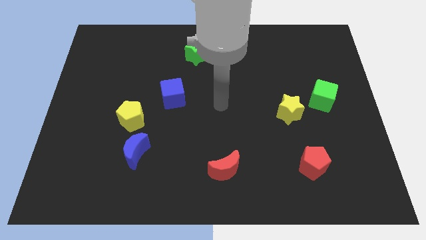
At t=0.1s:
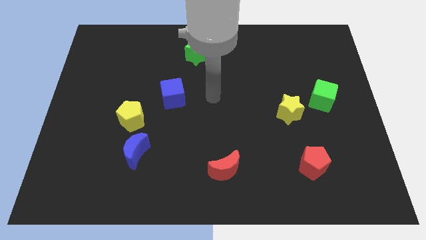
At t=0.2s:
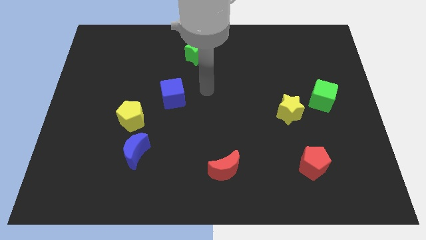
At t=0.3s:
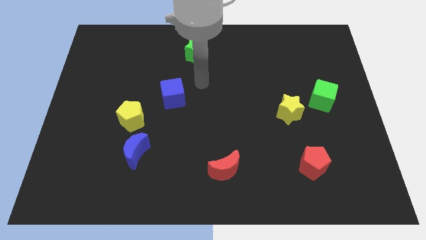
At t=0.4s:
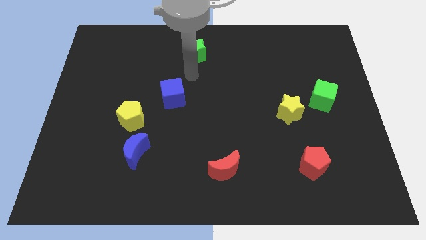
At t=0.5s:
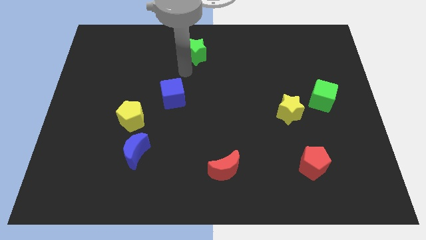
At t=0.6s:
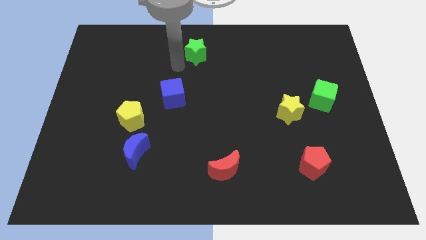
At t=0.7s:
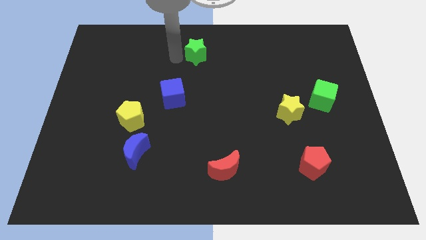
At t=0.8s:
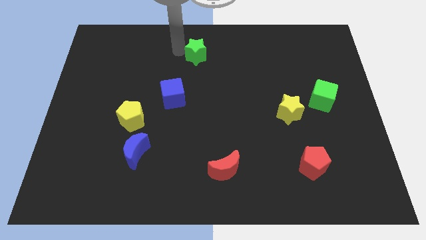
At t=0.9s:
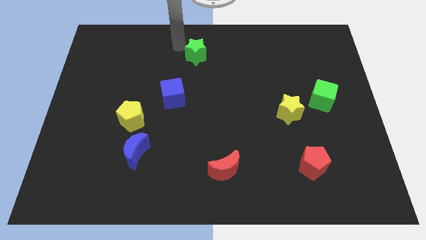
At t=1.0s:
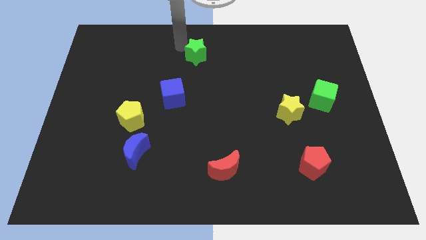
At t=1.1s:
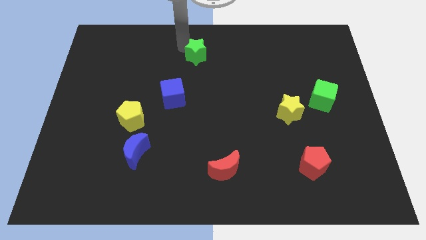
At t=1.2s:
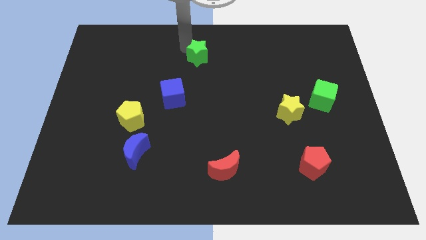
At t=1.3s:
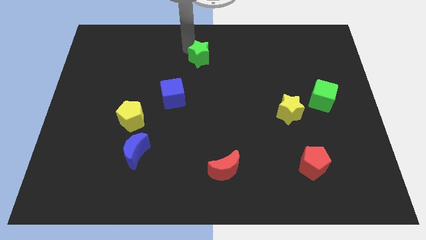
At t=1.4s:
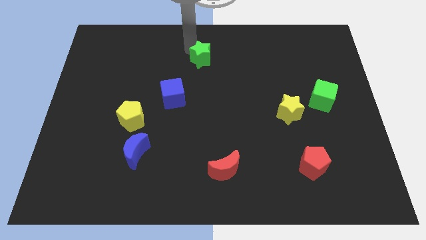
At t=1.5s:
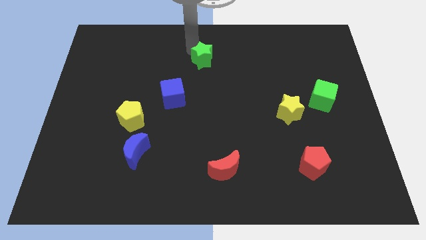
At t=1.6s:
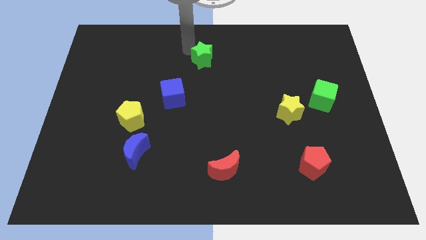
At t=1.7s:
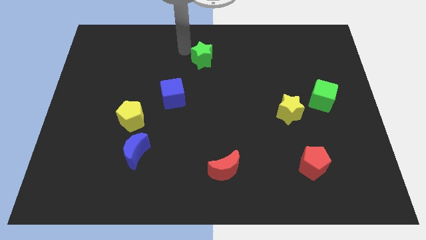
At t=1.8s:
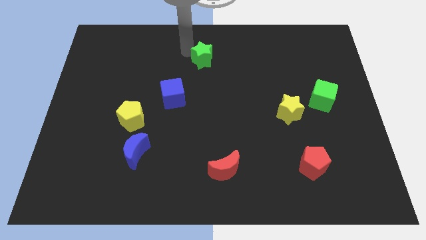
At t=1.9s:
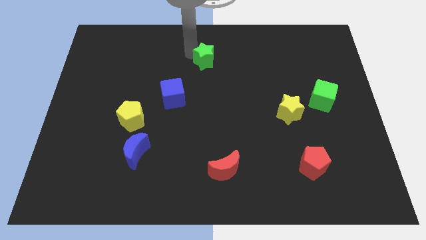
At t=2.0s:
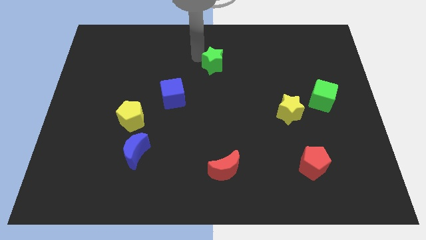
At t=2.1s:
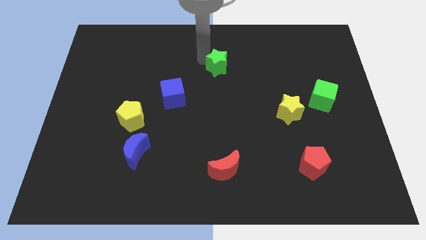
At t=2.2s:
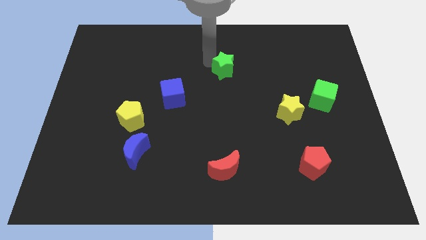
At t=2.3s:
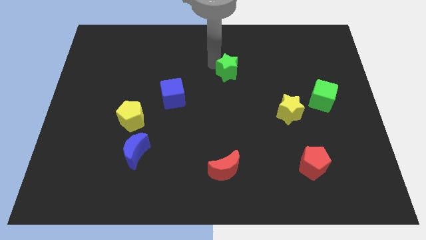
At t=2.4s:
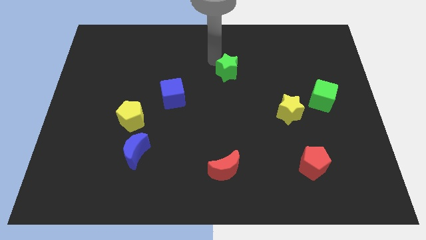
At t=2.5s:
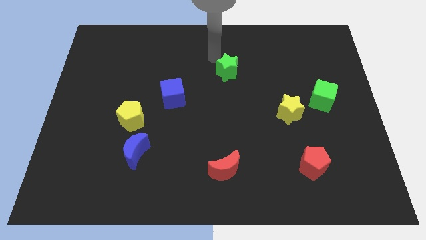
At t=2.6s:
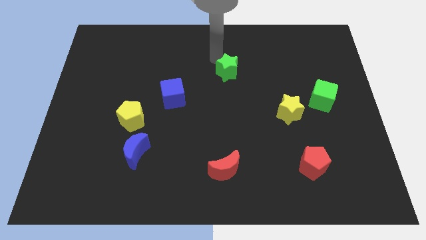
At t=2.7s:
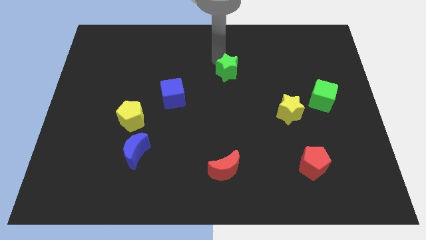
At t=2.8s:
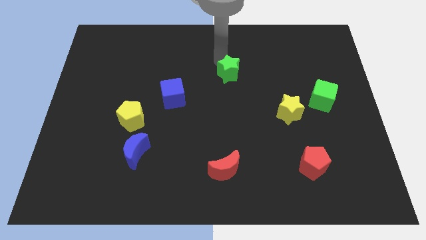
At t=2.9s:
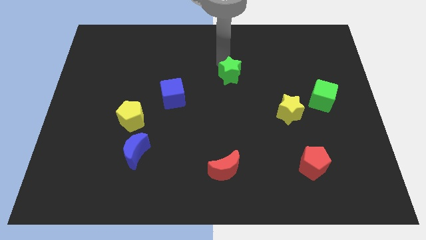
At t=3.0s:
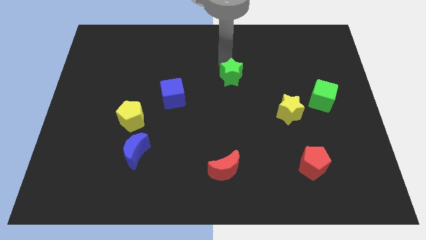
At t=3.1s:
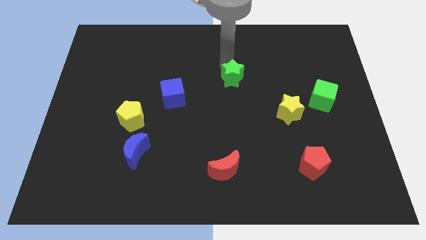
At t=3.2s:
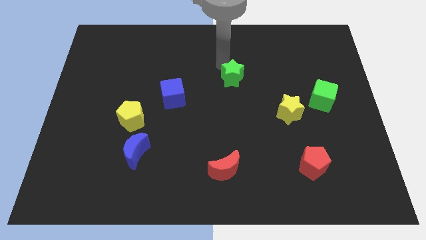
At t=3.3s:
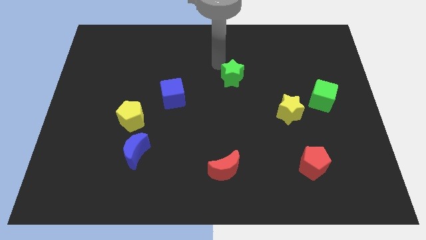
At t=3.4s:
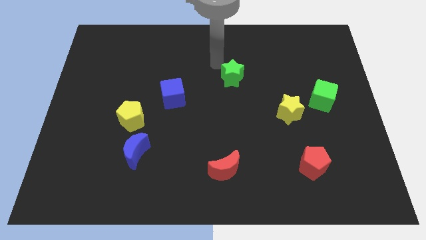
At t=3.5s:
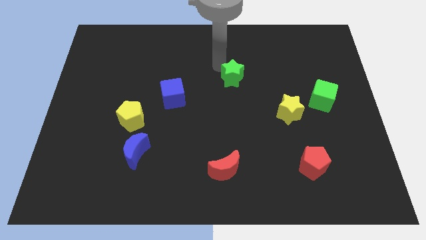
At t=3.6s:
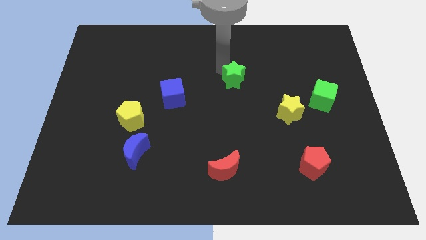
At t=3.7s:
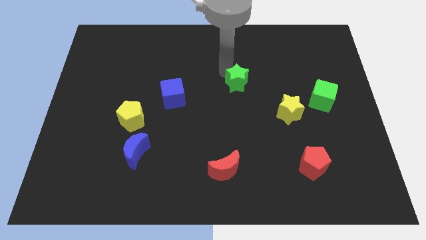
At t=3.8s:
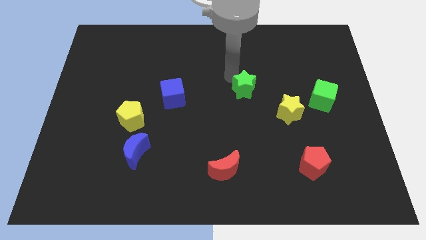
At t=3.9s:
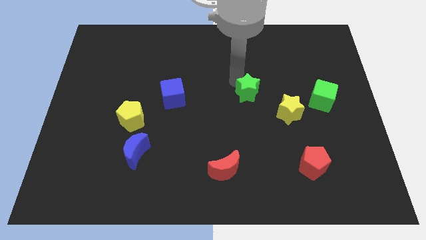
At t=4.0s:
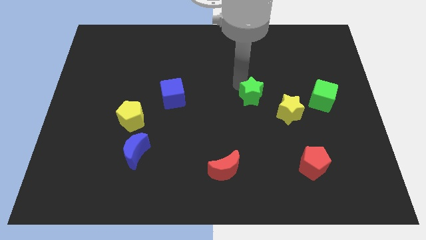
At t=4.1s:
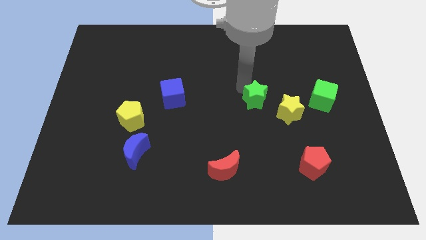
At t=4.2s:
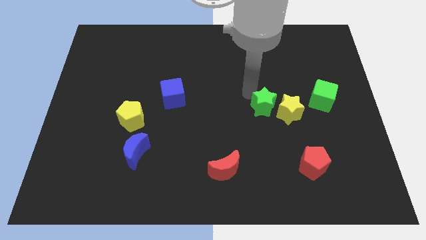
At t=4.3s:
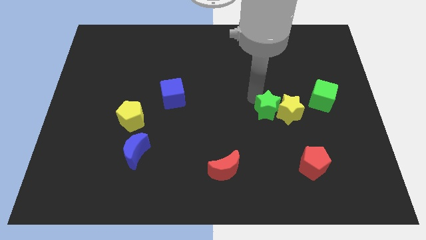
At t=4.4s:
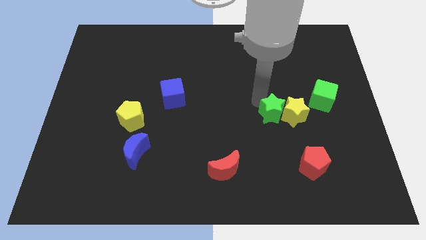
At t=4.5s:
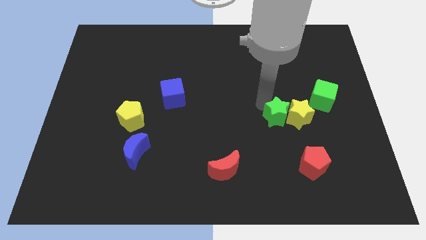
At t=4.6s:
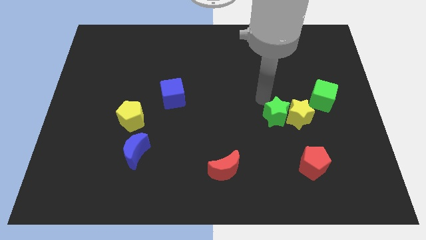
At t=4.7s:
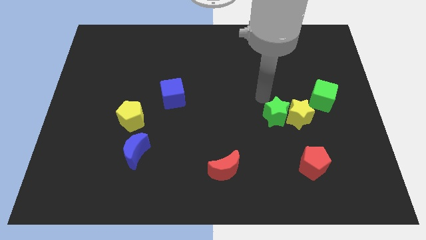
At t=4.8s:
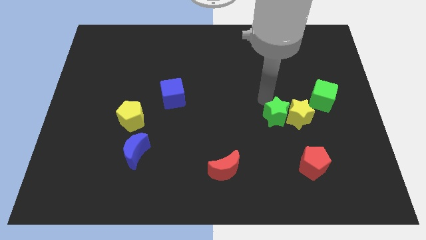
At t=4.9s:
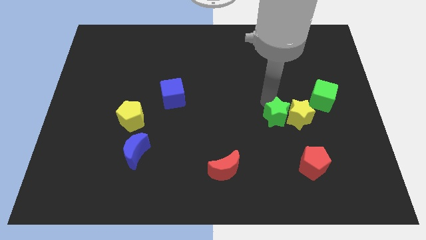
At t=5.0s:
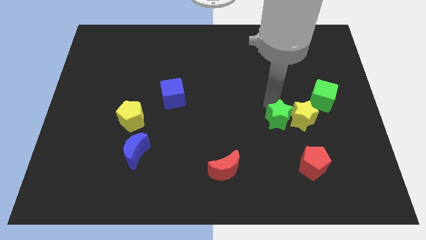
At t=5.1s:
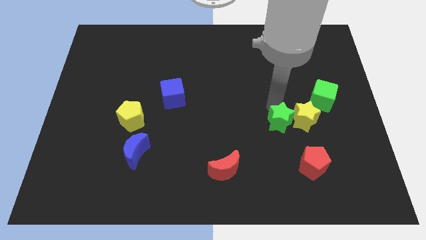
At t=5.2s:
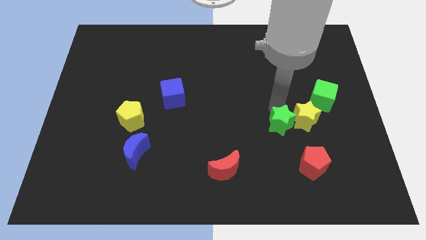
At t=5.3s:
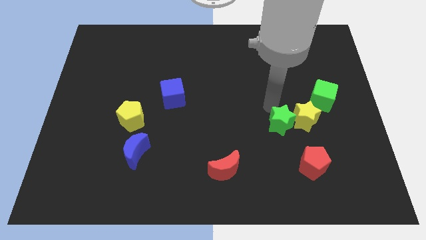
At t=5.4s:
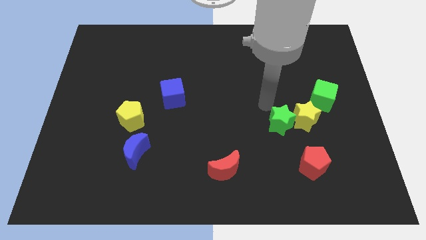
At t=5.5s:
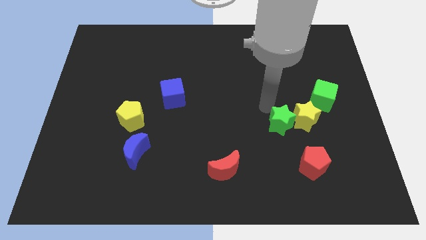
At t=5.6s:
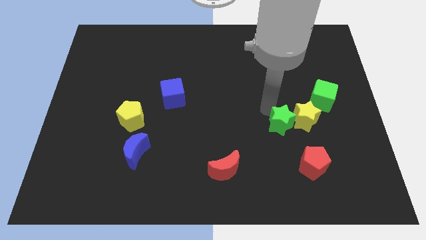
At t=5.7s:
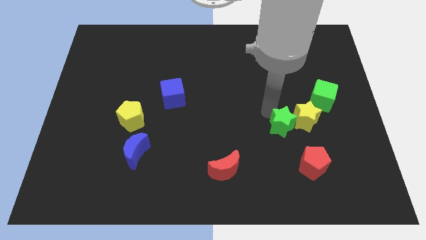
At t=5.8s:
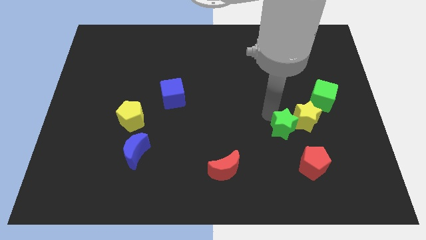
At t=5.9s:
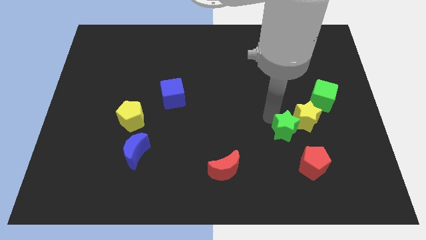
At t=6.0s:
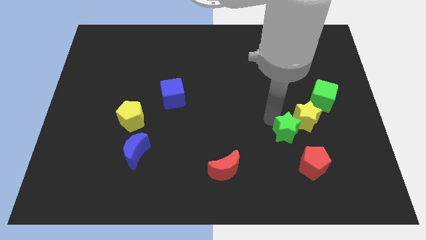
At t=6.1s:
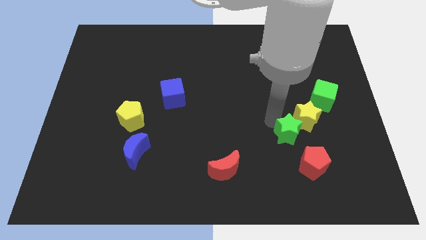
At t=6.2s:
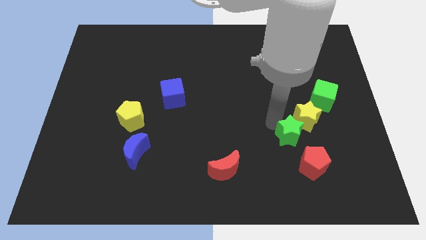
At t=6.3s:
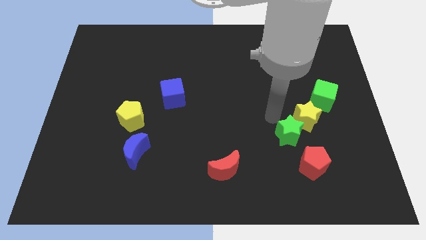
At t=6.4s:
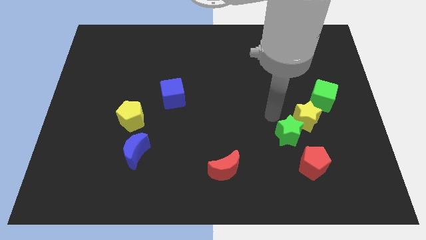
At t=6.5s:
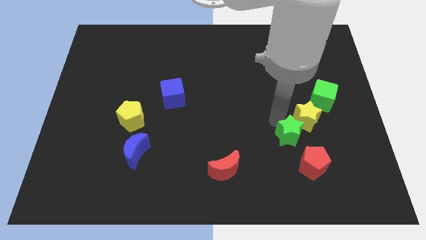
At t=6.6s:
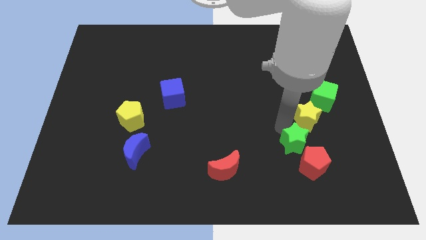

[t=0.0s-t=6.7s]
slide the green star towards the red pentagon
